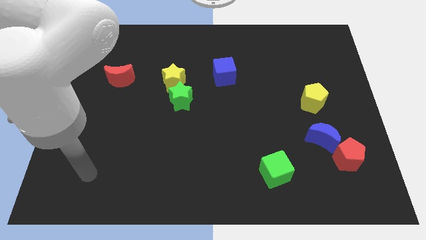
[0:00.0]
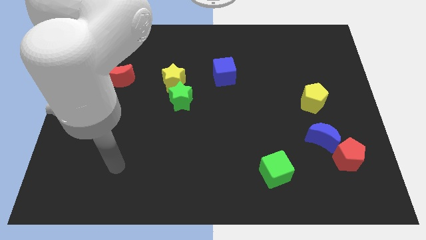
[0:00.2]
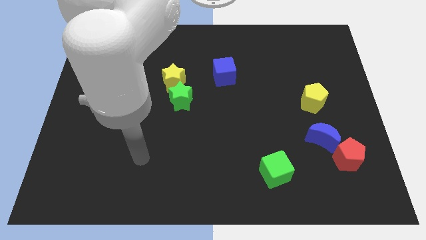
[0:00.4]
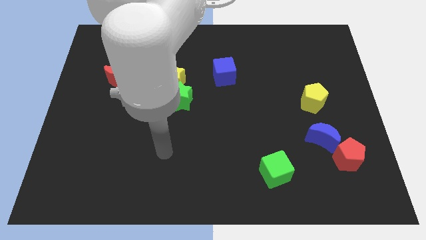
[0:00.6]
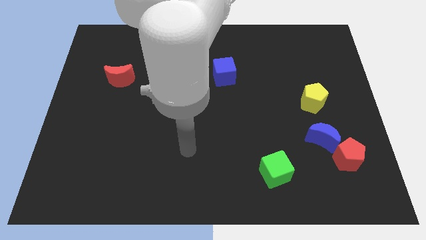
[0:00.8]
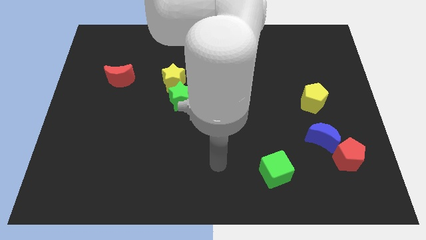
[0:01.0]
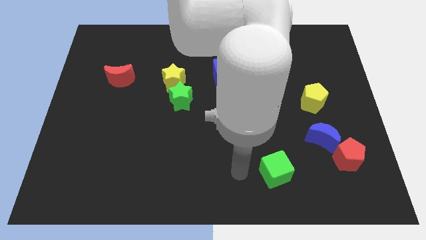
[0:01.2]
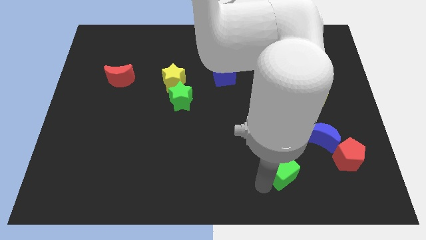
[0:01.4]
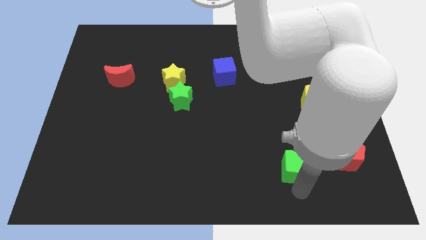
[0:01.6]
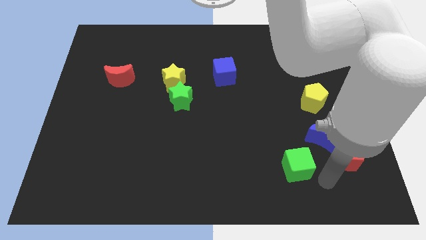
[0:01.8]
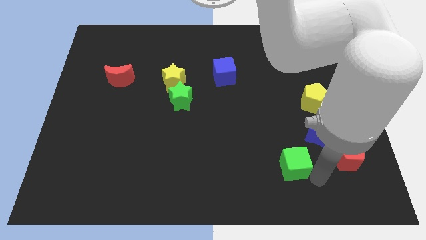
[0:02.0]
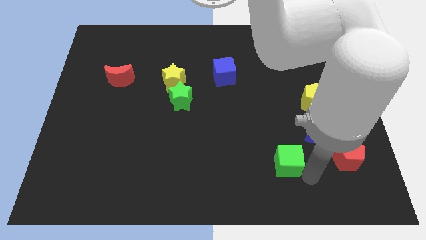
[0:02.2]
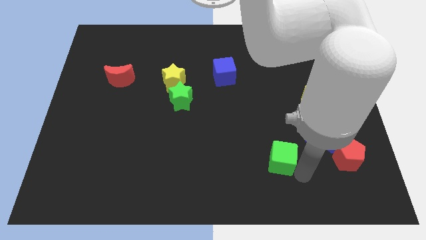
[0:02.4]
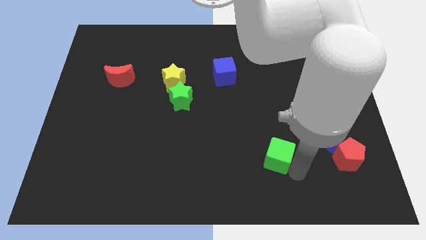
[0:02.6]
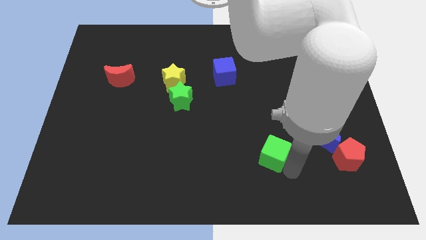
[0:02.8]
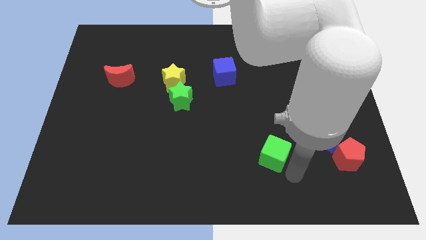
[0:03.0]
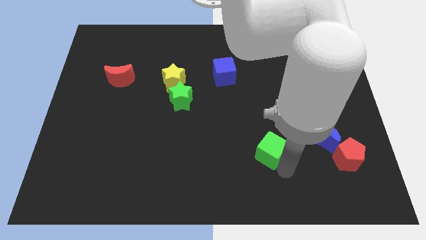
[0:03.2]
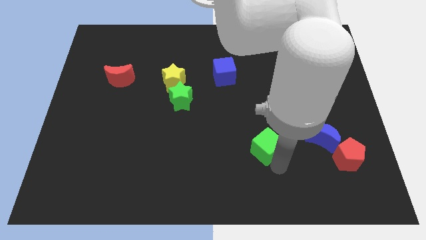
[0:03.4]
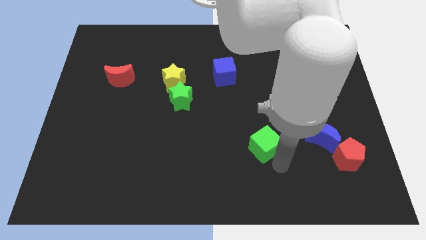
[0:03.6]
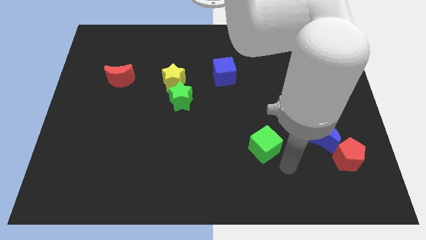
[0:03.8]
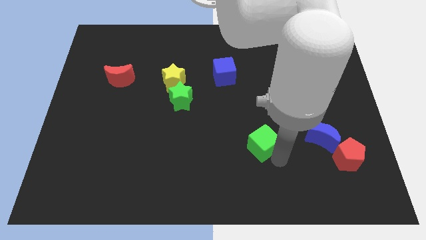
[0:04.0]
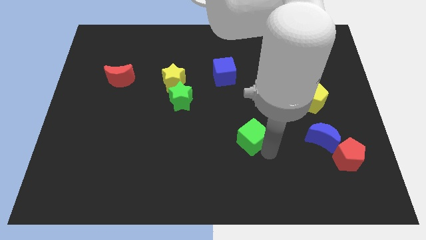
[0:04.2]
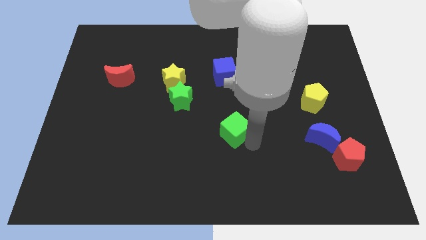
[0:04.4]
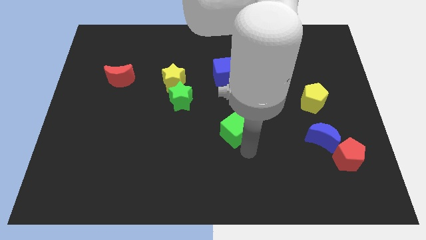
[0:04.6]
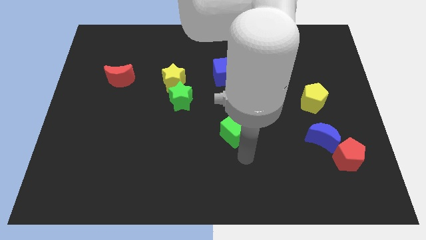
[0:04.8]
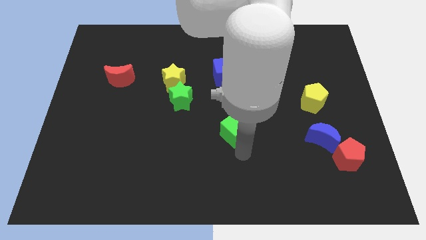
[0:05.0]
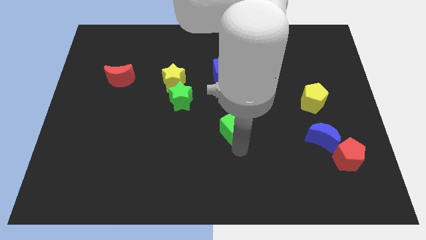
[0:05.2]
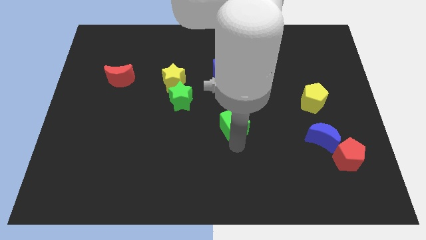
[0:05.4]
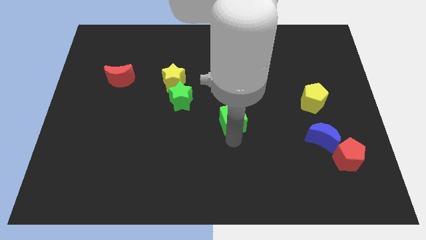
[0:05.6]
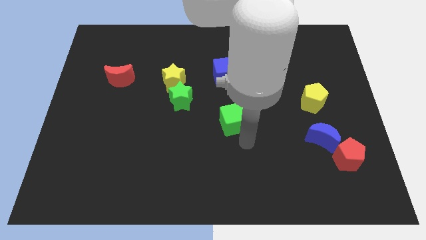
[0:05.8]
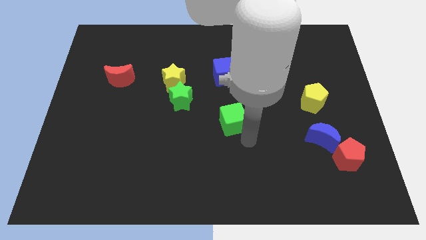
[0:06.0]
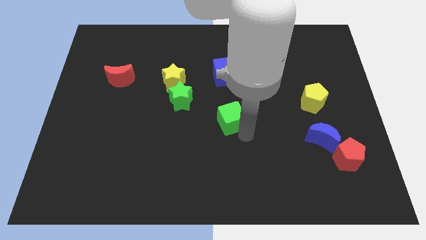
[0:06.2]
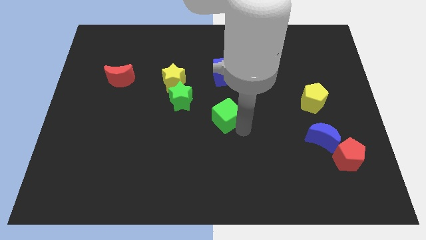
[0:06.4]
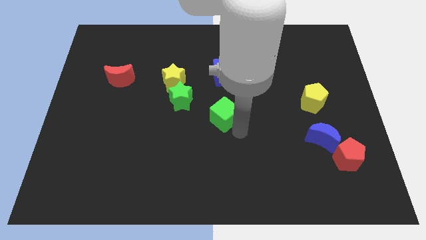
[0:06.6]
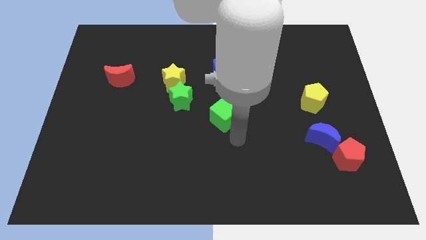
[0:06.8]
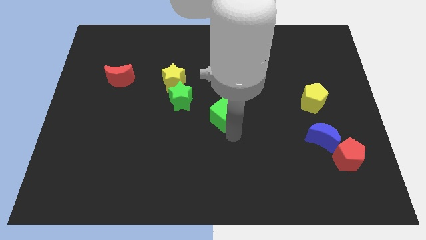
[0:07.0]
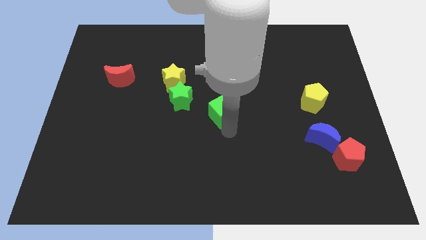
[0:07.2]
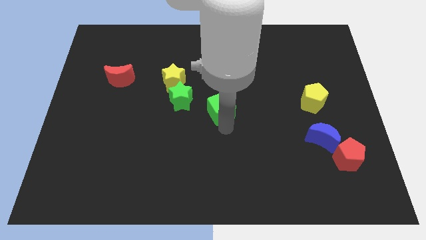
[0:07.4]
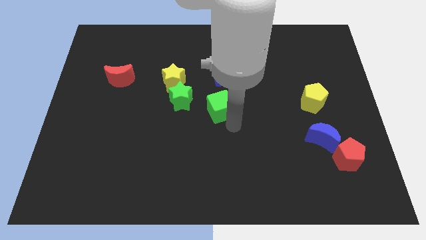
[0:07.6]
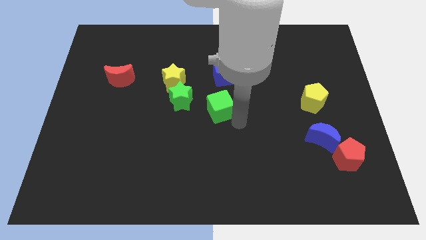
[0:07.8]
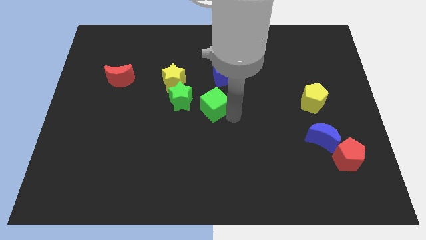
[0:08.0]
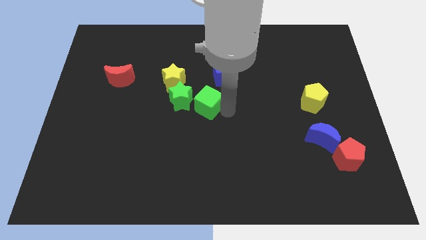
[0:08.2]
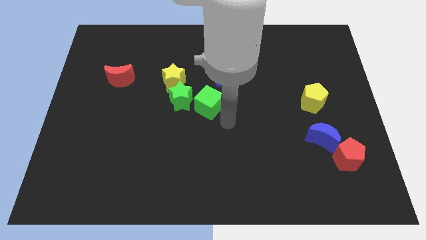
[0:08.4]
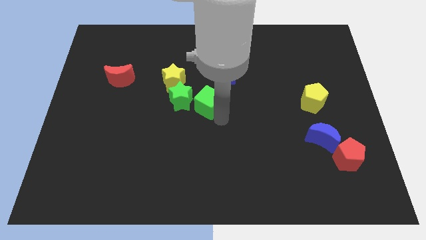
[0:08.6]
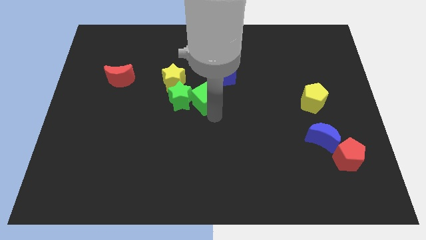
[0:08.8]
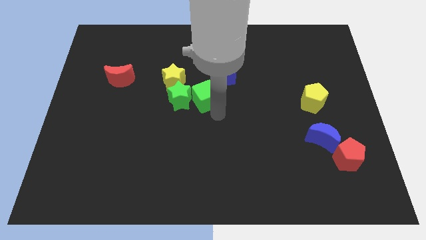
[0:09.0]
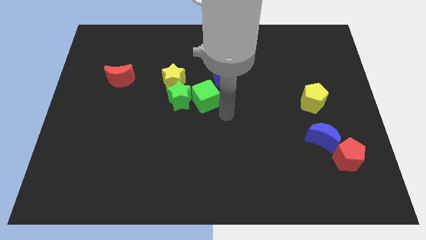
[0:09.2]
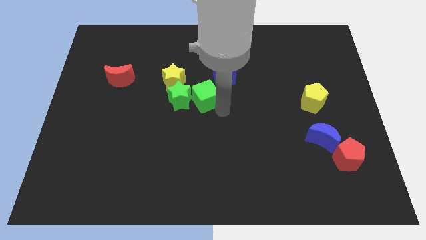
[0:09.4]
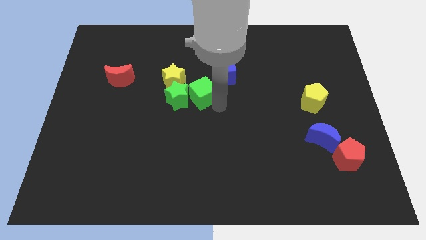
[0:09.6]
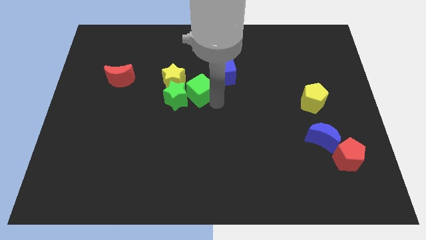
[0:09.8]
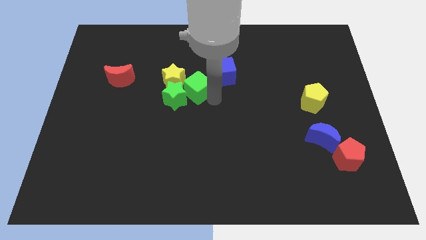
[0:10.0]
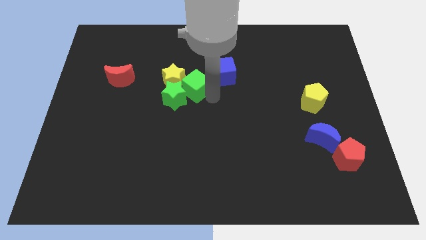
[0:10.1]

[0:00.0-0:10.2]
put the green cube to the yellow star

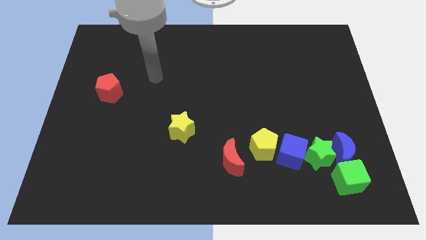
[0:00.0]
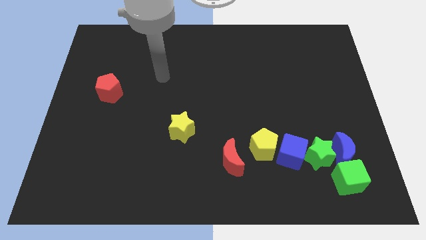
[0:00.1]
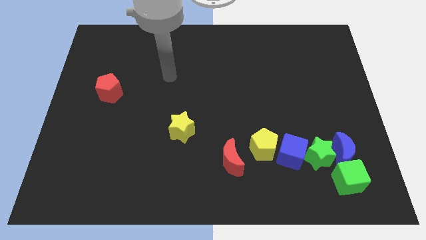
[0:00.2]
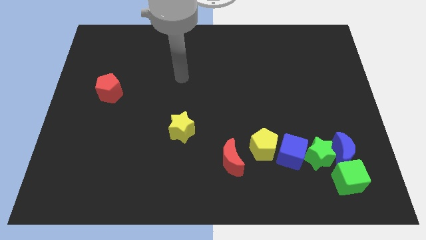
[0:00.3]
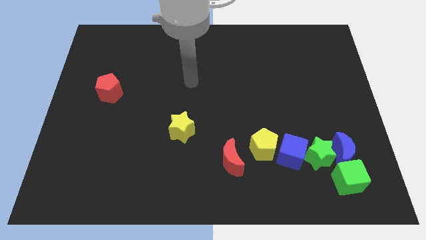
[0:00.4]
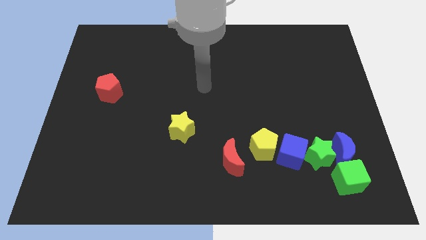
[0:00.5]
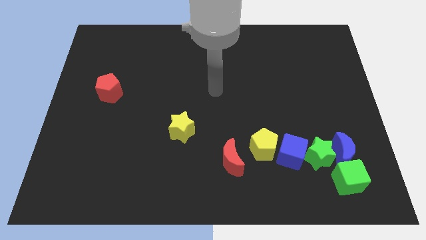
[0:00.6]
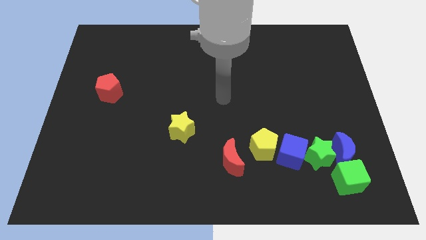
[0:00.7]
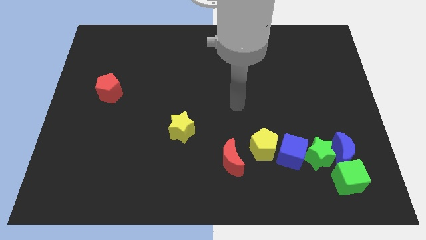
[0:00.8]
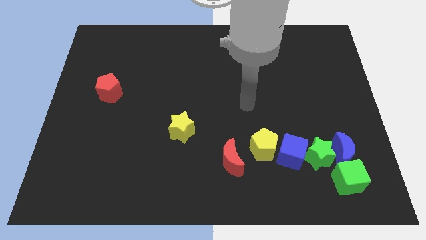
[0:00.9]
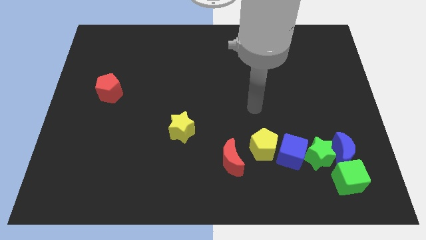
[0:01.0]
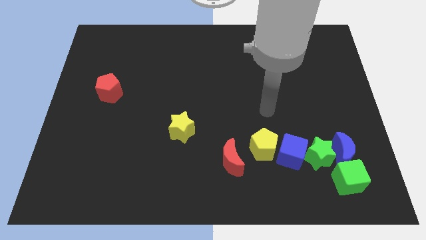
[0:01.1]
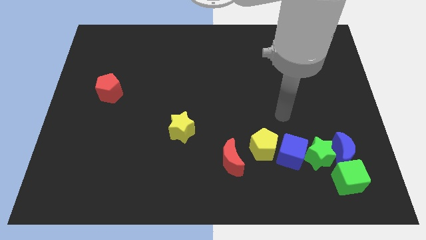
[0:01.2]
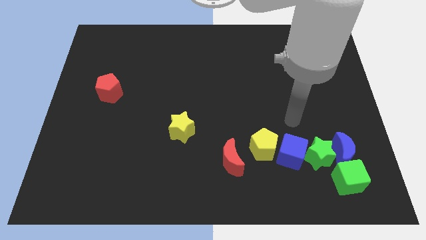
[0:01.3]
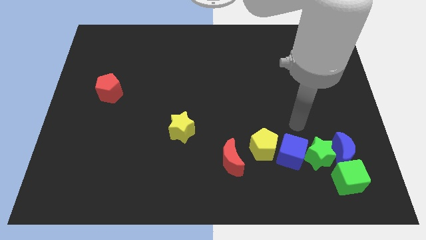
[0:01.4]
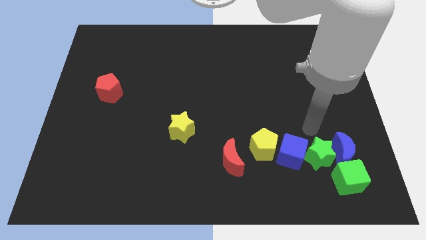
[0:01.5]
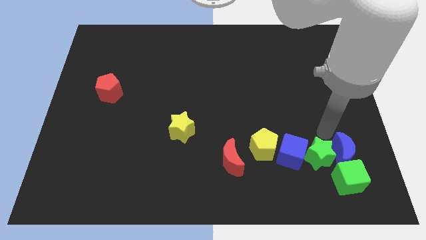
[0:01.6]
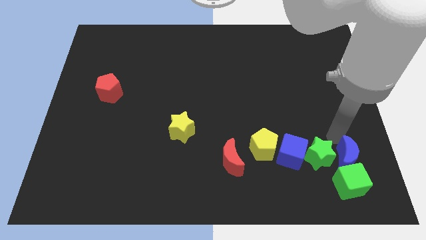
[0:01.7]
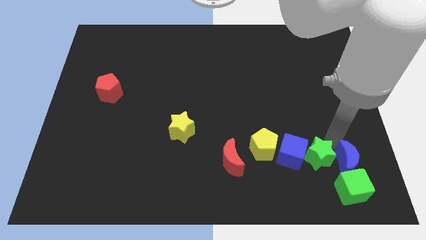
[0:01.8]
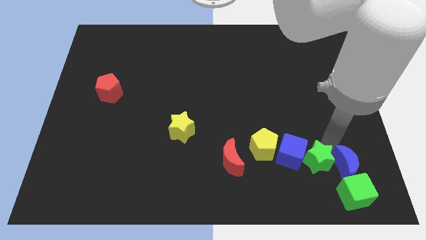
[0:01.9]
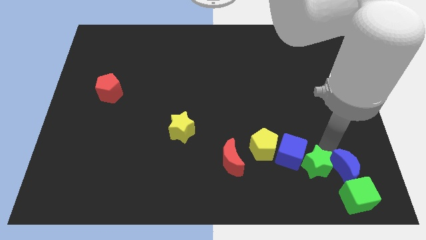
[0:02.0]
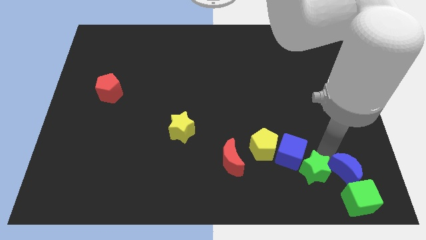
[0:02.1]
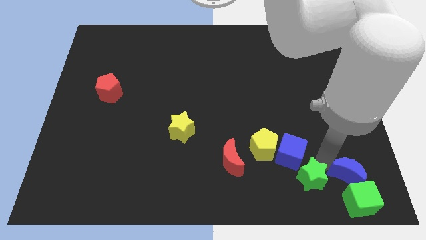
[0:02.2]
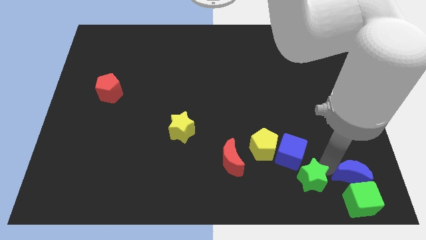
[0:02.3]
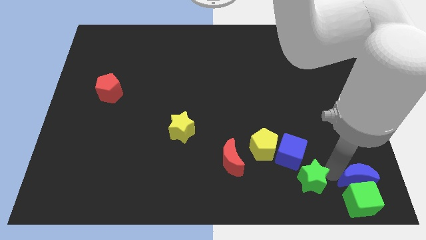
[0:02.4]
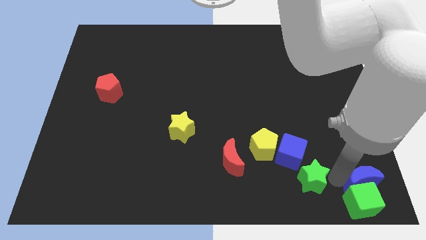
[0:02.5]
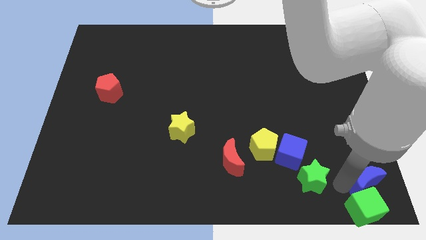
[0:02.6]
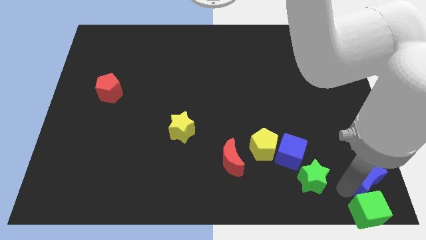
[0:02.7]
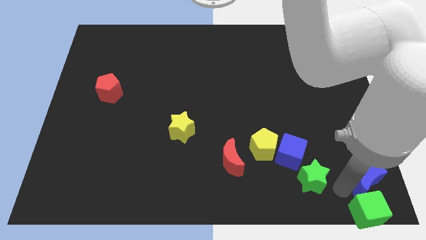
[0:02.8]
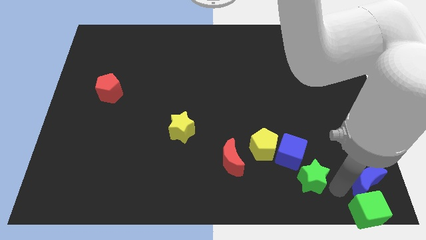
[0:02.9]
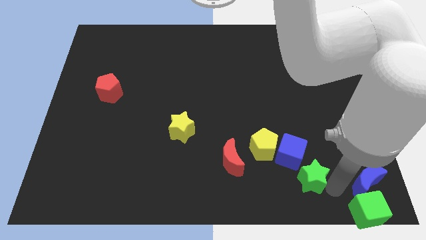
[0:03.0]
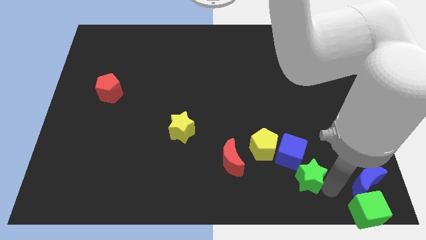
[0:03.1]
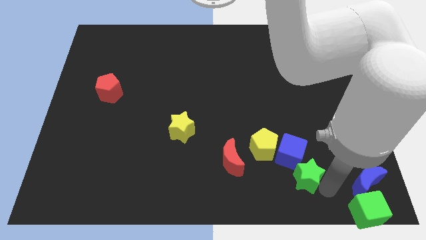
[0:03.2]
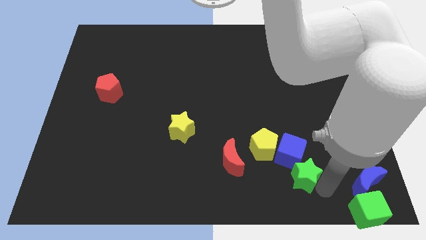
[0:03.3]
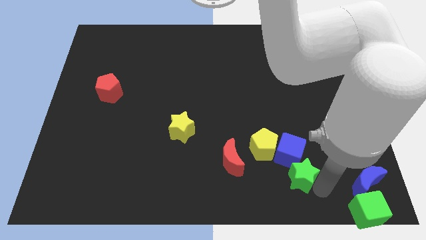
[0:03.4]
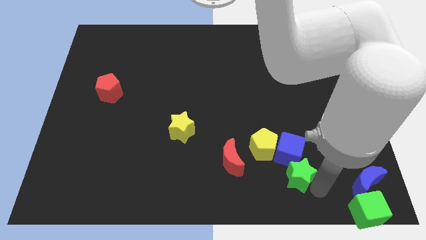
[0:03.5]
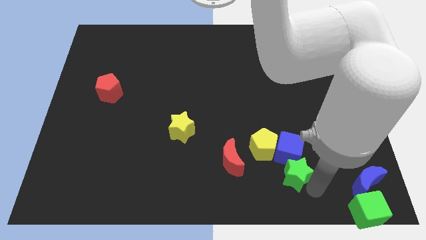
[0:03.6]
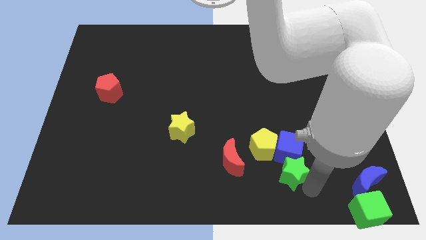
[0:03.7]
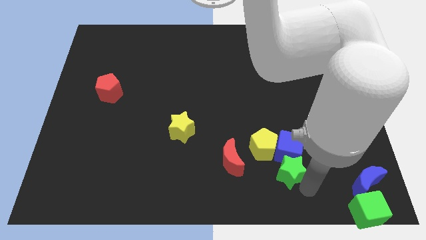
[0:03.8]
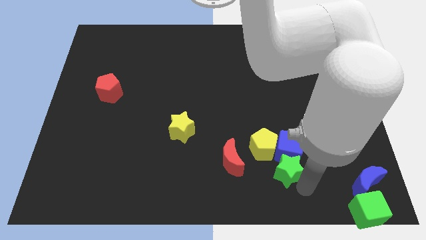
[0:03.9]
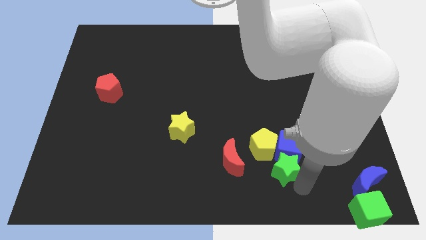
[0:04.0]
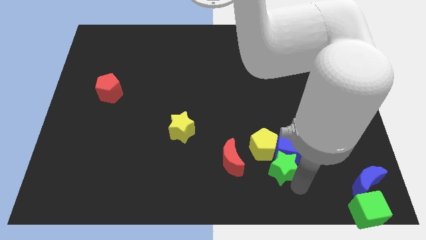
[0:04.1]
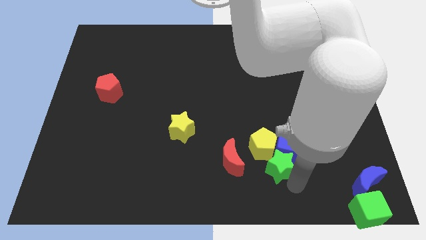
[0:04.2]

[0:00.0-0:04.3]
move the green star to the yellow pentagon
